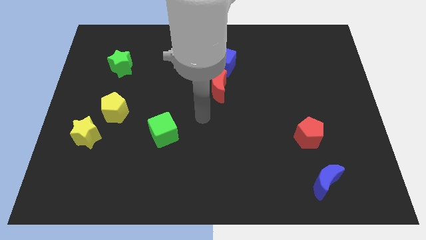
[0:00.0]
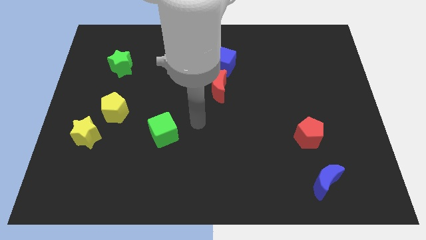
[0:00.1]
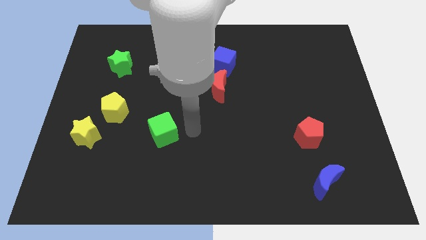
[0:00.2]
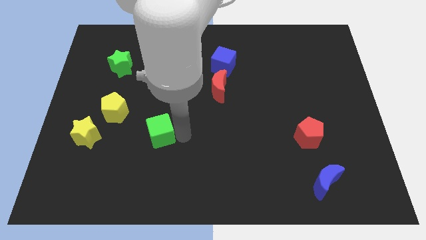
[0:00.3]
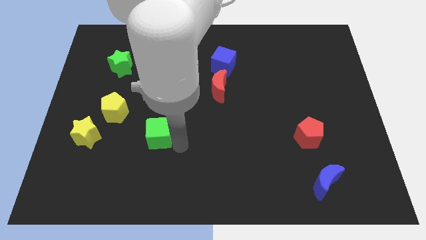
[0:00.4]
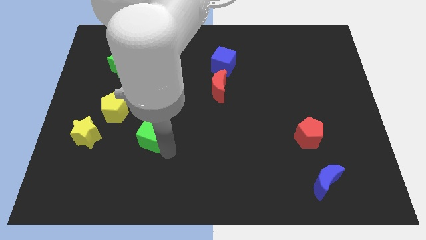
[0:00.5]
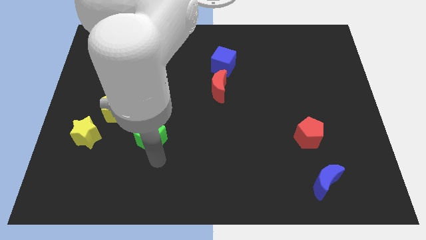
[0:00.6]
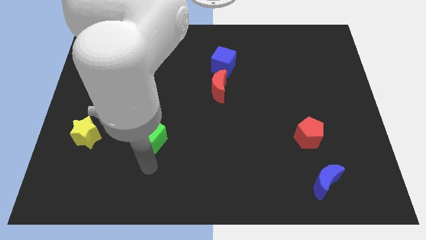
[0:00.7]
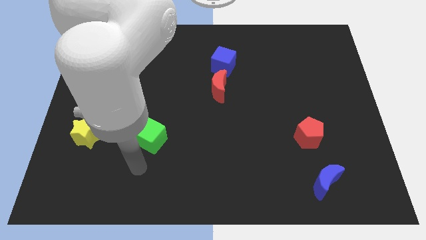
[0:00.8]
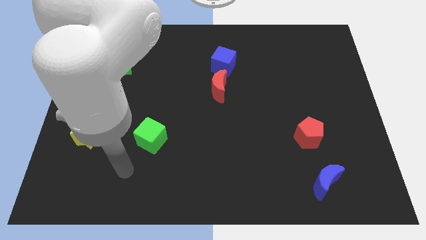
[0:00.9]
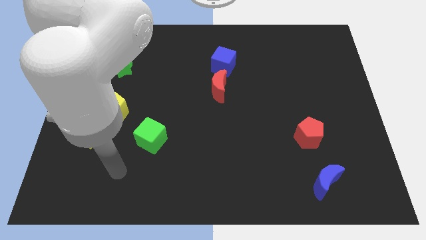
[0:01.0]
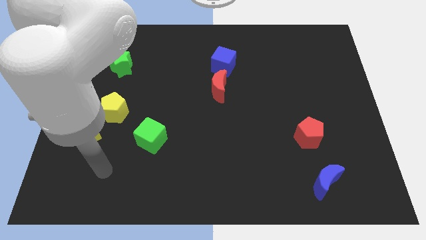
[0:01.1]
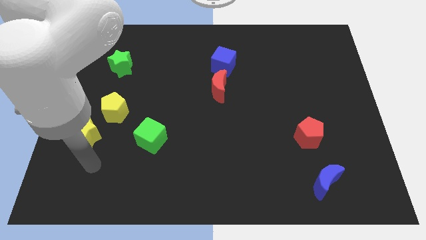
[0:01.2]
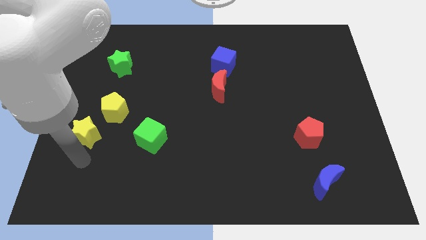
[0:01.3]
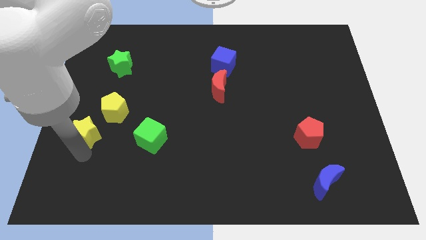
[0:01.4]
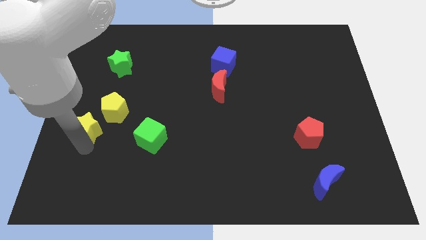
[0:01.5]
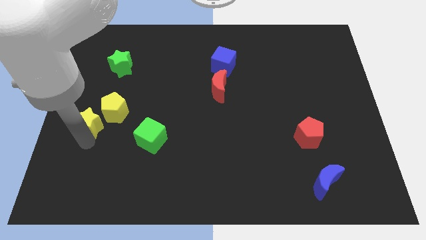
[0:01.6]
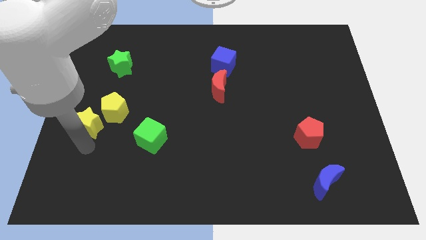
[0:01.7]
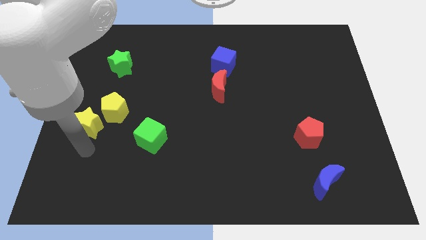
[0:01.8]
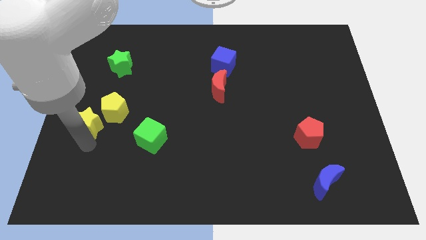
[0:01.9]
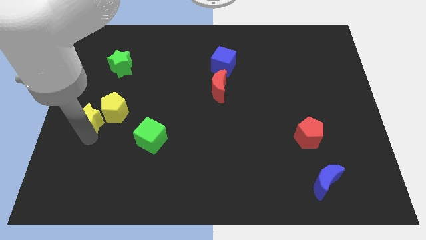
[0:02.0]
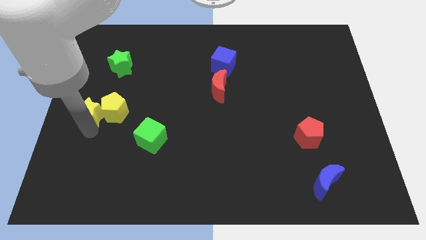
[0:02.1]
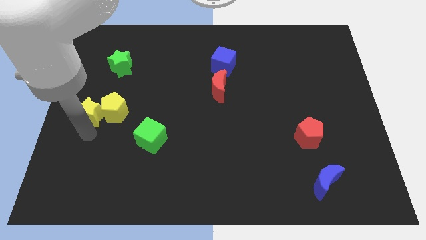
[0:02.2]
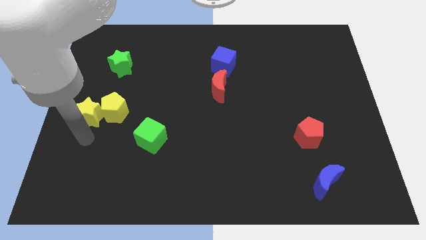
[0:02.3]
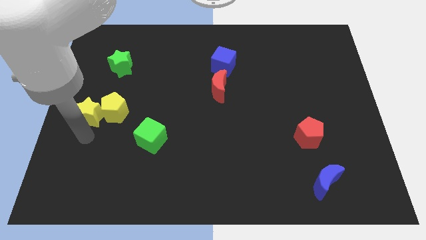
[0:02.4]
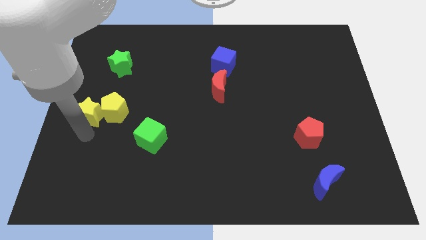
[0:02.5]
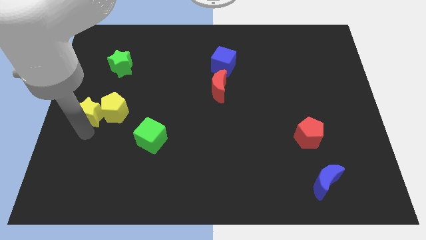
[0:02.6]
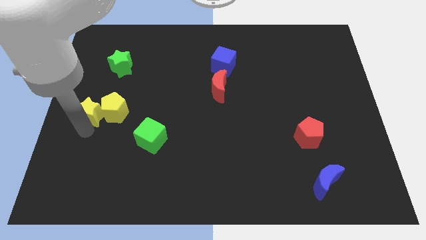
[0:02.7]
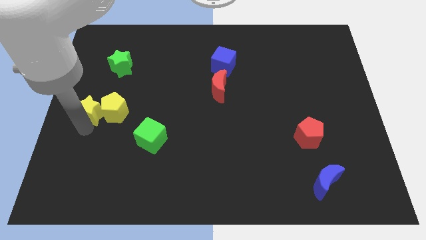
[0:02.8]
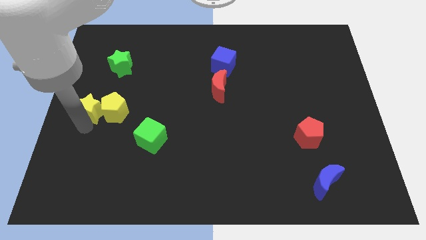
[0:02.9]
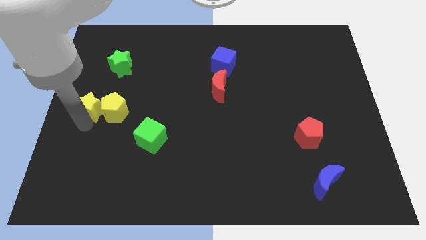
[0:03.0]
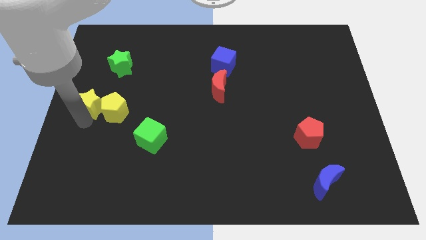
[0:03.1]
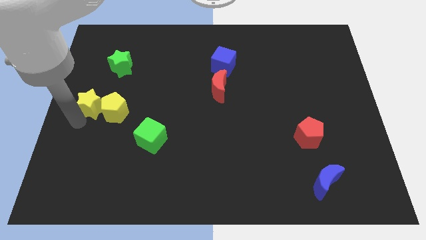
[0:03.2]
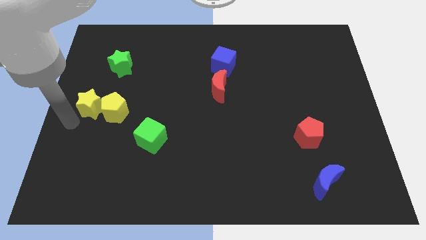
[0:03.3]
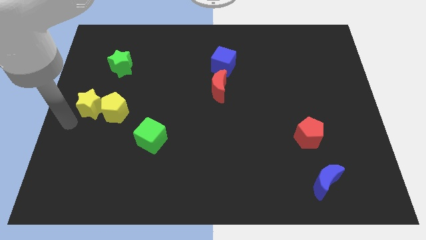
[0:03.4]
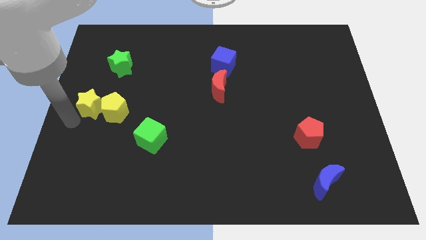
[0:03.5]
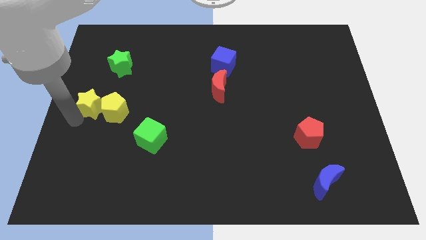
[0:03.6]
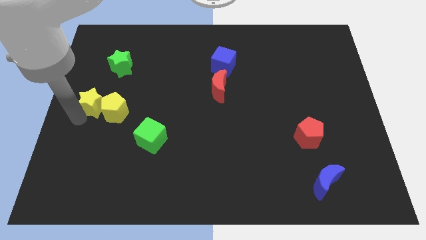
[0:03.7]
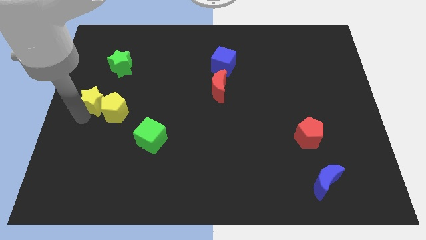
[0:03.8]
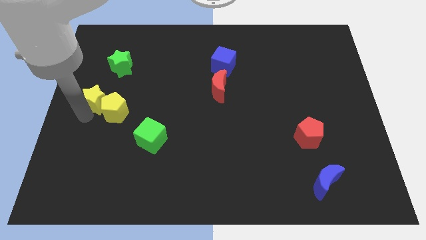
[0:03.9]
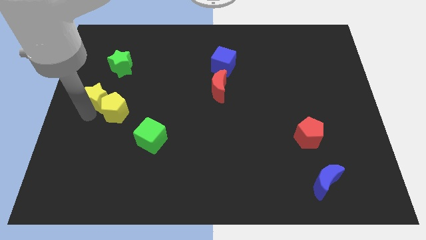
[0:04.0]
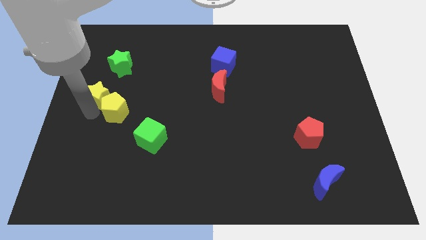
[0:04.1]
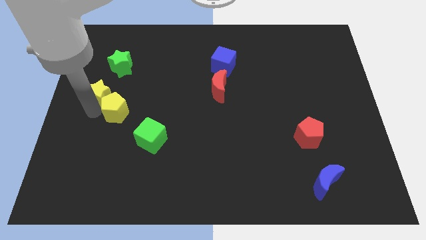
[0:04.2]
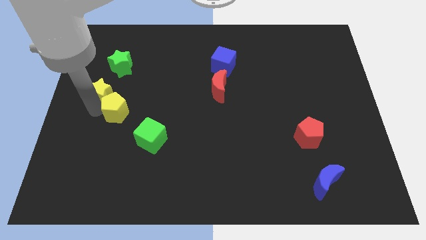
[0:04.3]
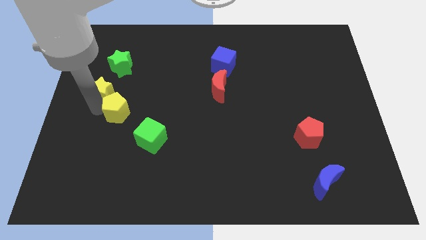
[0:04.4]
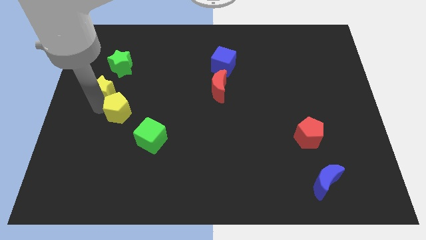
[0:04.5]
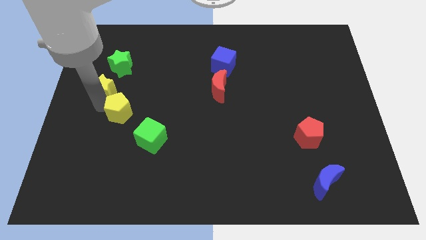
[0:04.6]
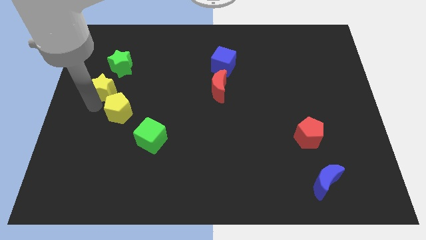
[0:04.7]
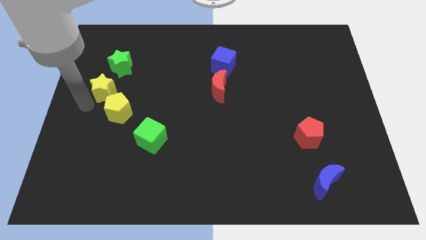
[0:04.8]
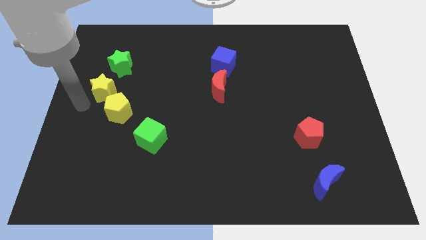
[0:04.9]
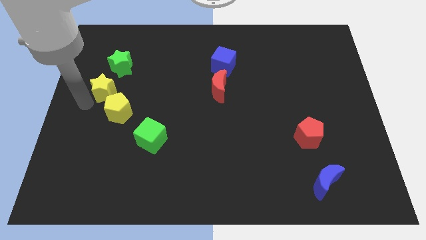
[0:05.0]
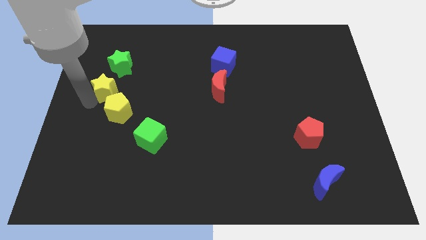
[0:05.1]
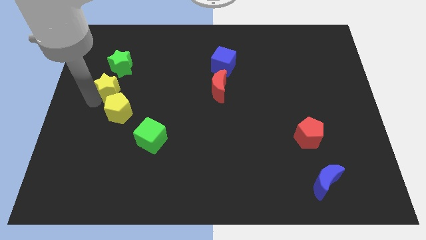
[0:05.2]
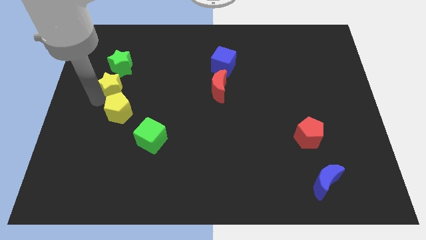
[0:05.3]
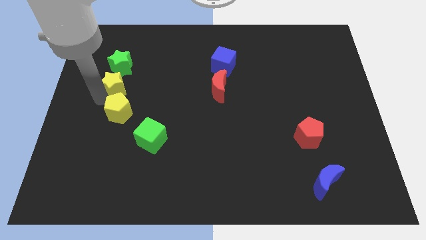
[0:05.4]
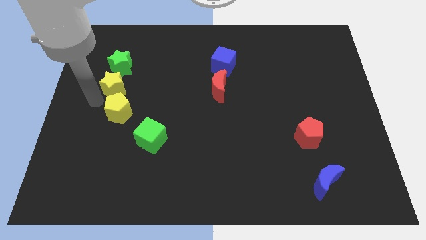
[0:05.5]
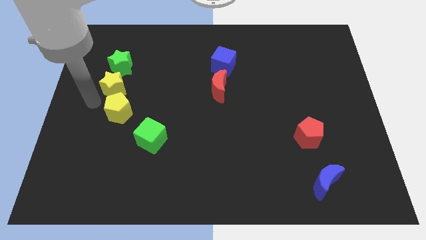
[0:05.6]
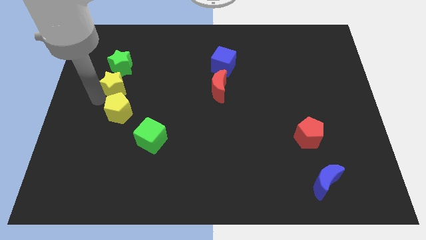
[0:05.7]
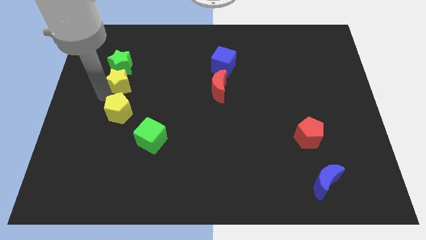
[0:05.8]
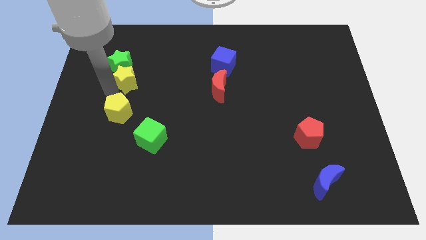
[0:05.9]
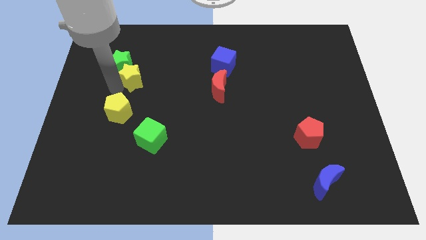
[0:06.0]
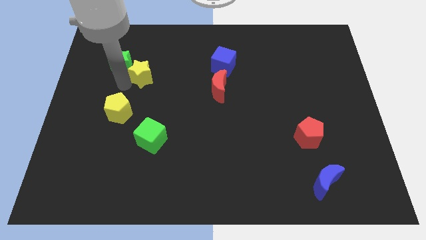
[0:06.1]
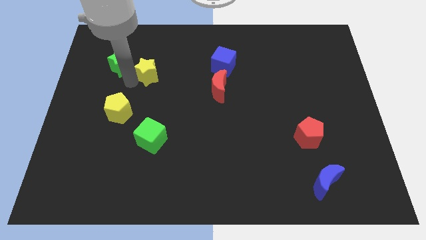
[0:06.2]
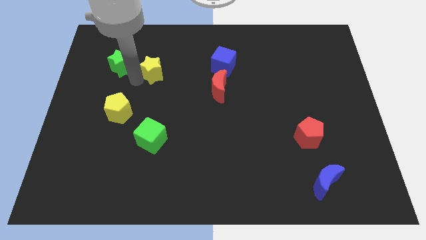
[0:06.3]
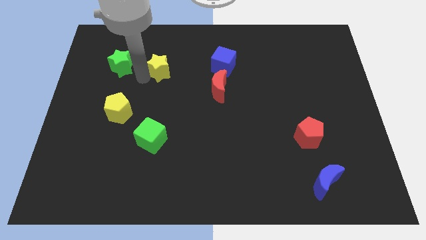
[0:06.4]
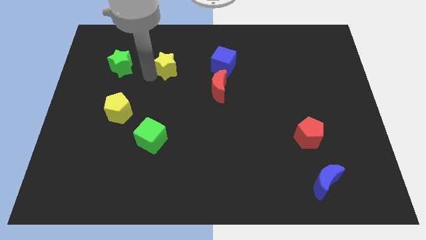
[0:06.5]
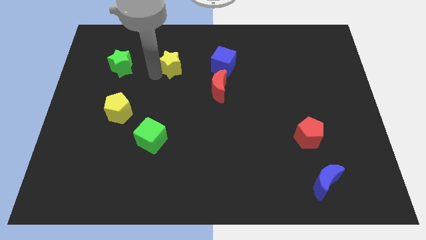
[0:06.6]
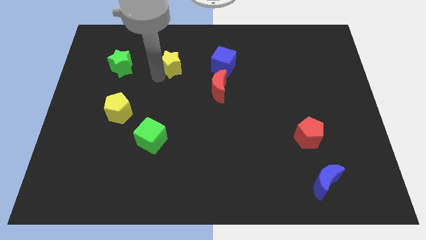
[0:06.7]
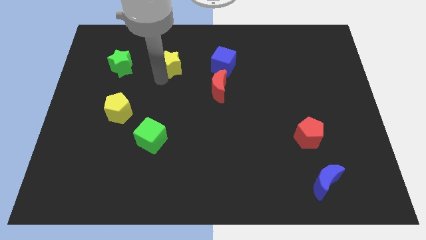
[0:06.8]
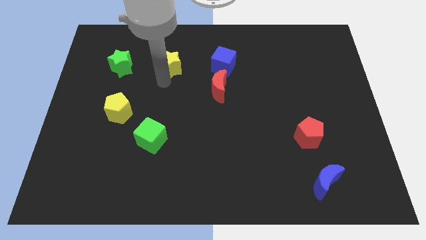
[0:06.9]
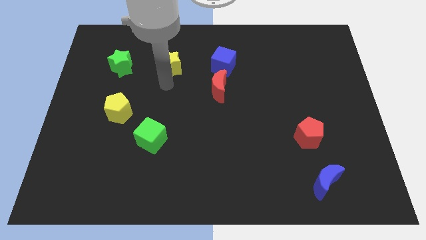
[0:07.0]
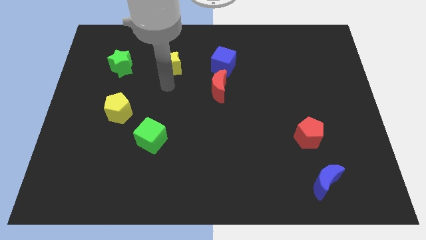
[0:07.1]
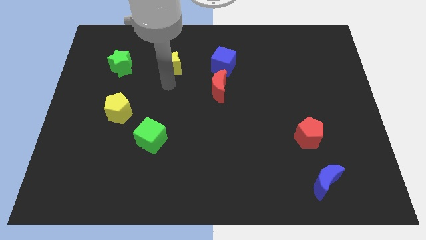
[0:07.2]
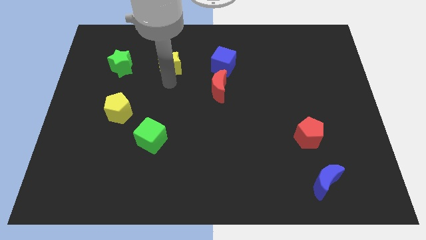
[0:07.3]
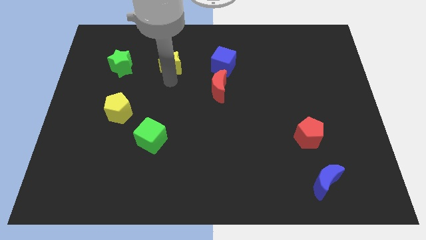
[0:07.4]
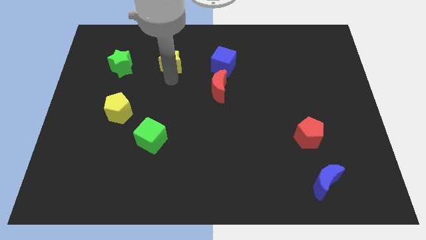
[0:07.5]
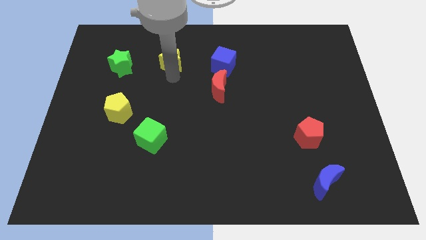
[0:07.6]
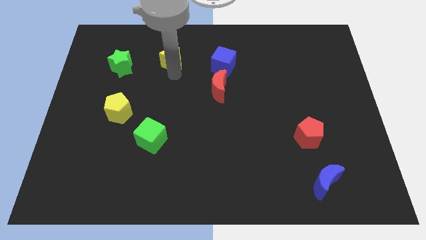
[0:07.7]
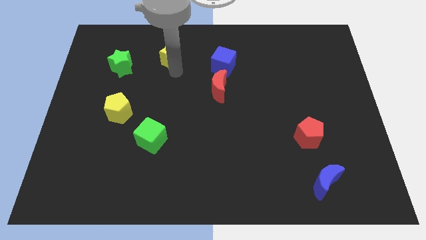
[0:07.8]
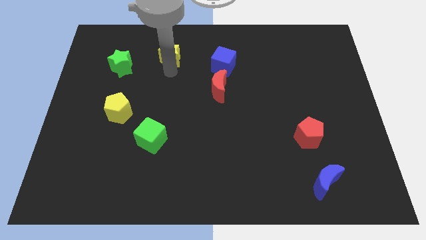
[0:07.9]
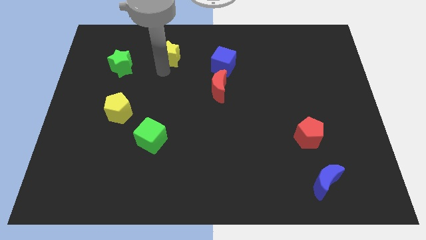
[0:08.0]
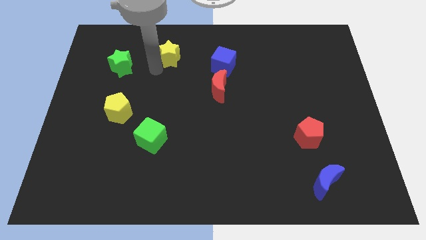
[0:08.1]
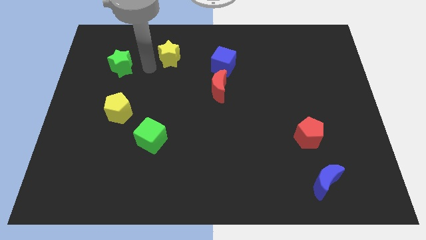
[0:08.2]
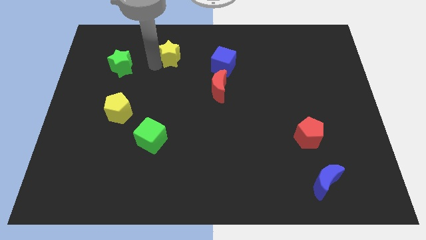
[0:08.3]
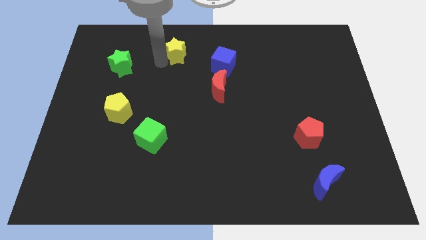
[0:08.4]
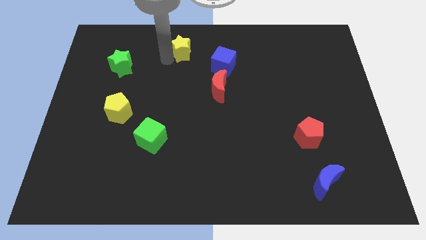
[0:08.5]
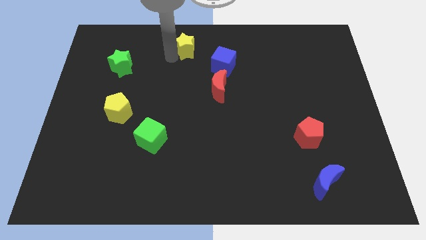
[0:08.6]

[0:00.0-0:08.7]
push the yellow star to the top side
